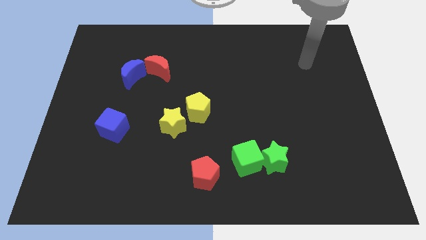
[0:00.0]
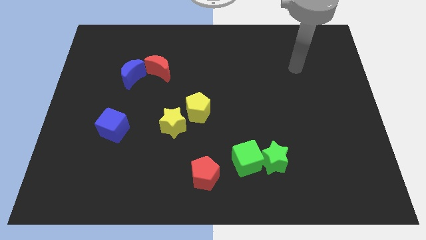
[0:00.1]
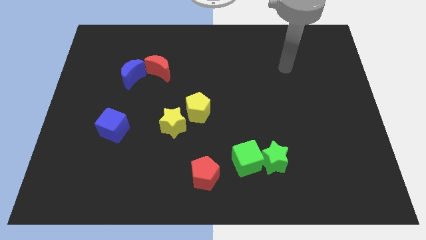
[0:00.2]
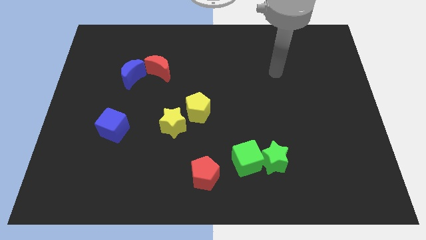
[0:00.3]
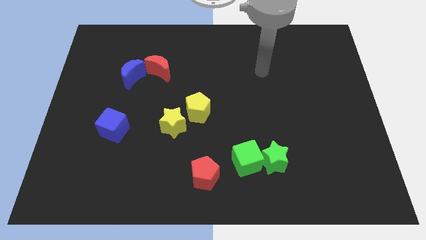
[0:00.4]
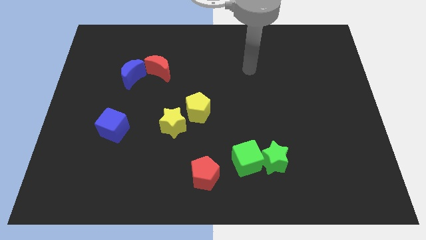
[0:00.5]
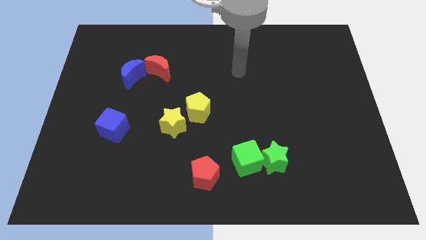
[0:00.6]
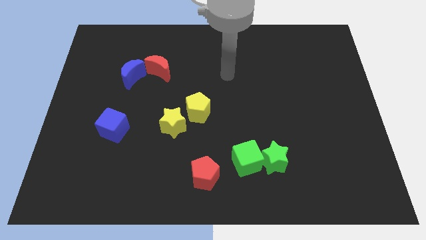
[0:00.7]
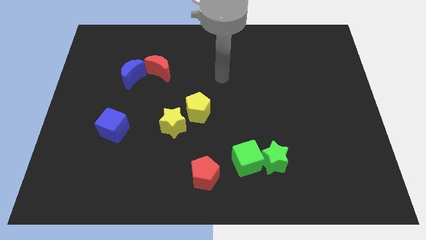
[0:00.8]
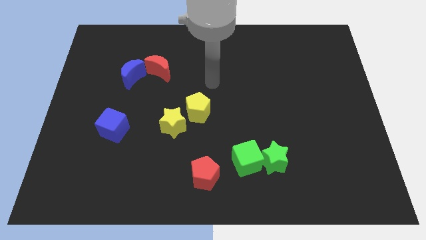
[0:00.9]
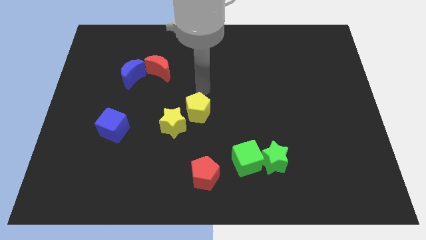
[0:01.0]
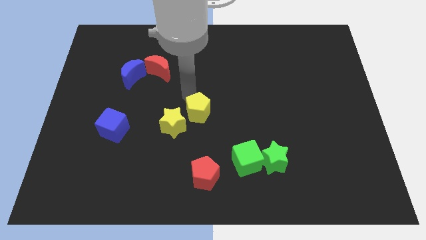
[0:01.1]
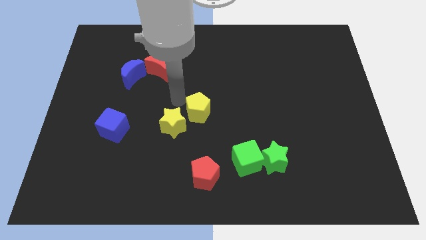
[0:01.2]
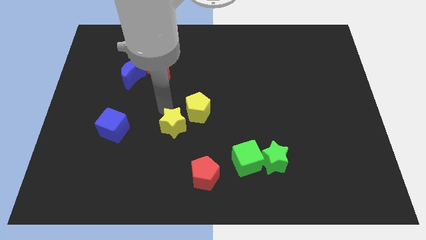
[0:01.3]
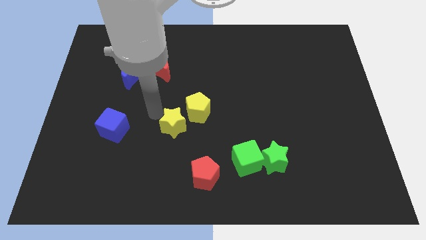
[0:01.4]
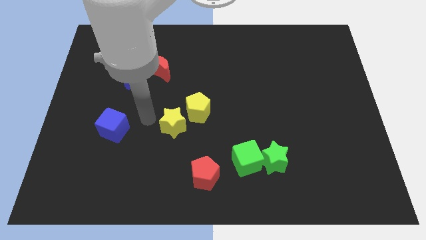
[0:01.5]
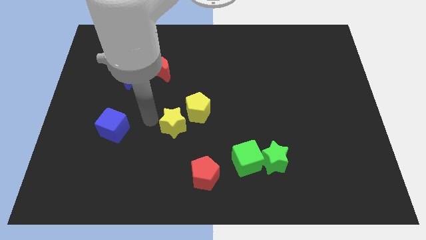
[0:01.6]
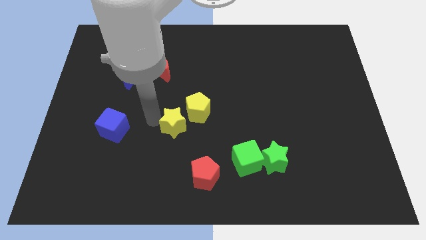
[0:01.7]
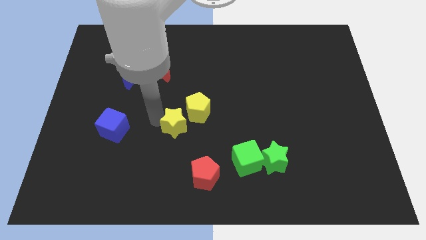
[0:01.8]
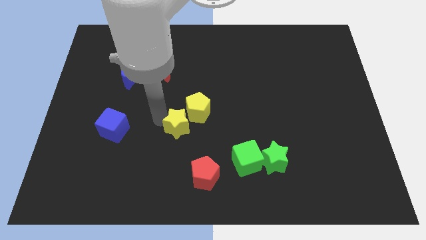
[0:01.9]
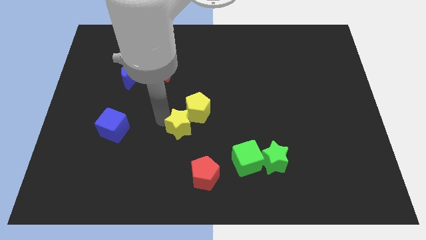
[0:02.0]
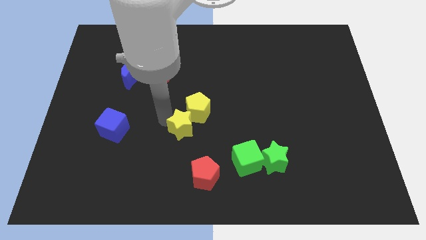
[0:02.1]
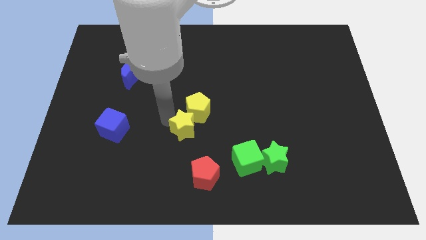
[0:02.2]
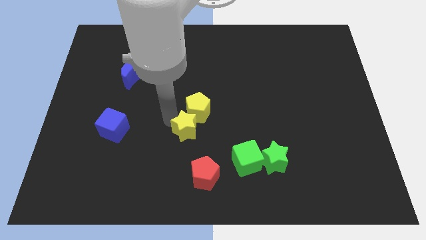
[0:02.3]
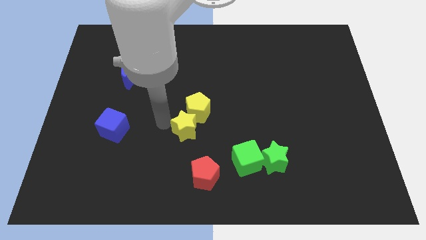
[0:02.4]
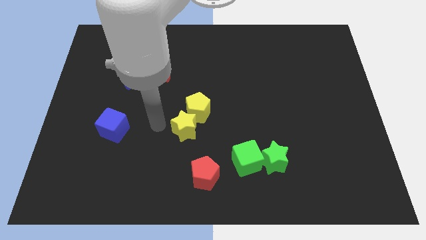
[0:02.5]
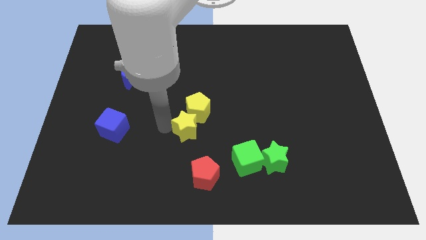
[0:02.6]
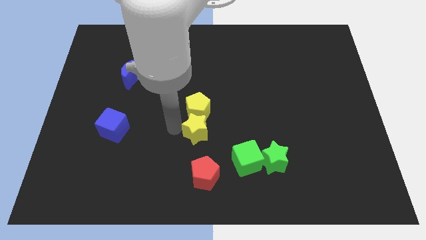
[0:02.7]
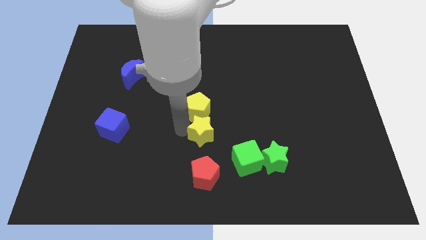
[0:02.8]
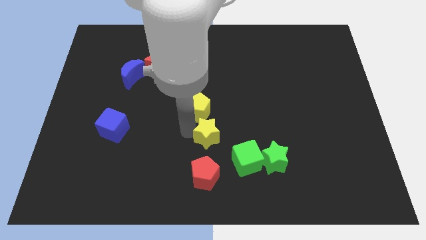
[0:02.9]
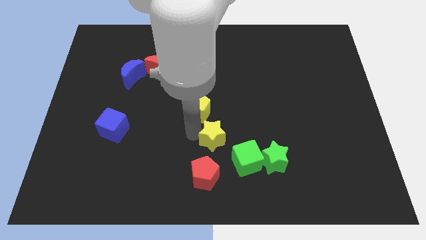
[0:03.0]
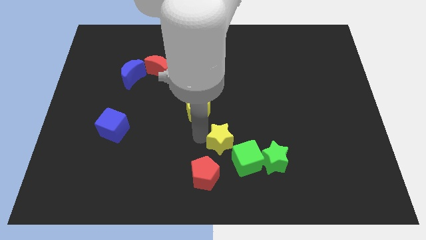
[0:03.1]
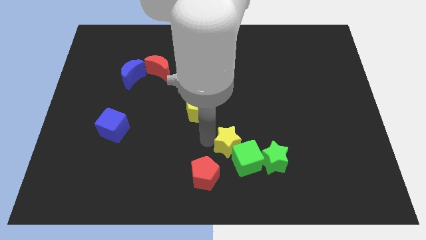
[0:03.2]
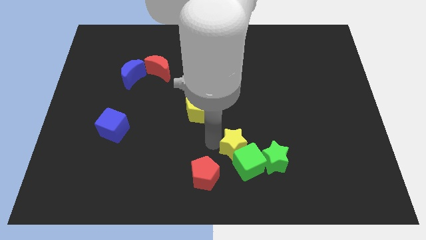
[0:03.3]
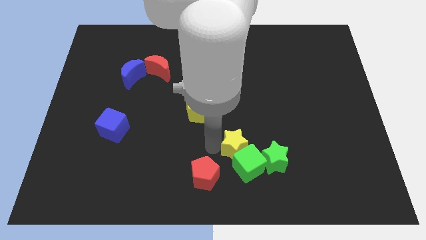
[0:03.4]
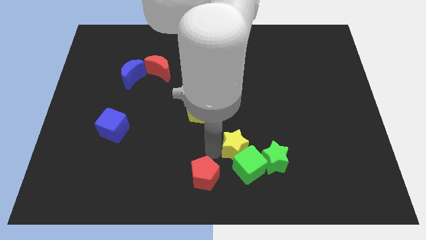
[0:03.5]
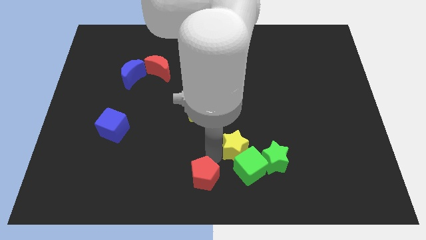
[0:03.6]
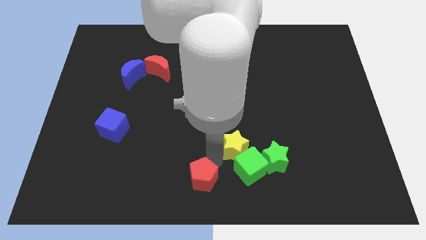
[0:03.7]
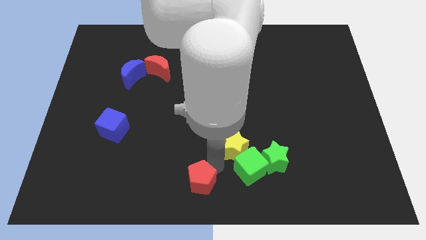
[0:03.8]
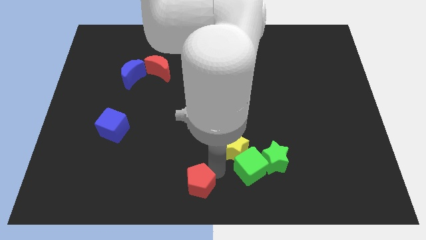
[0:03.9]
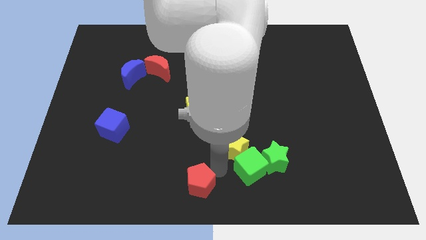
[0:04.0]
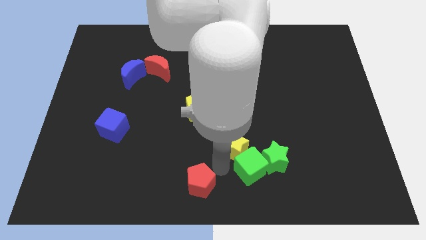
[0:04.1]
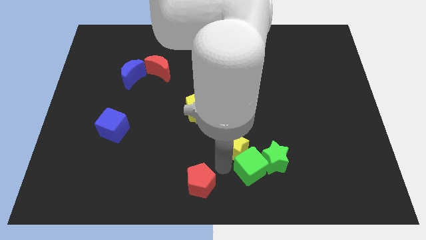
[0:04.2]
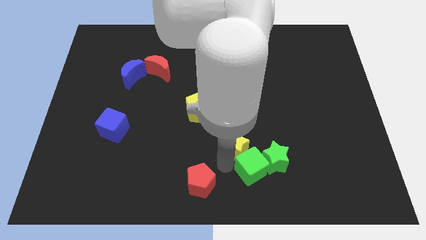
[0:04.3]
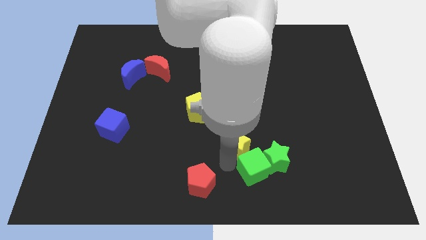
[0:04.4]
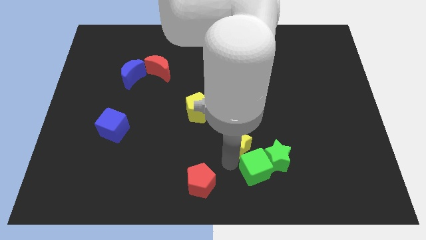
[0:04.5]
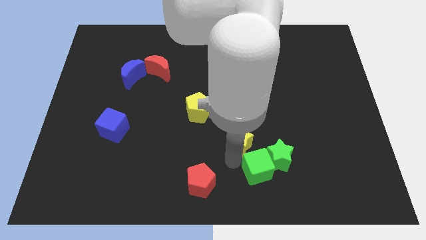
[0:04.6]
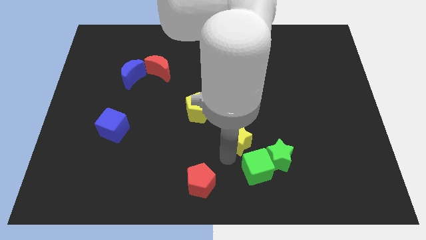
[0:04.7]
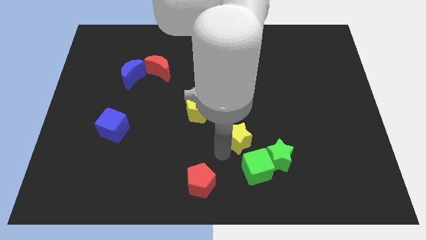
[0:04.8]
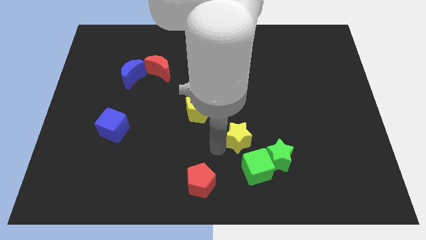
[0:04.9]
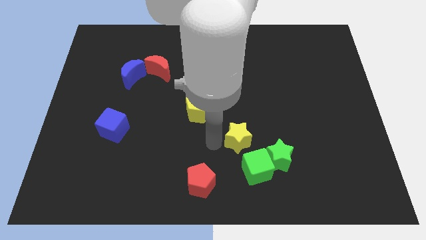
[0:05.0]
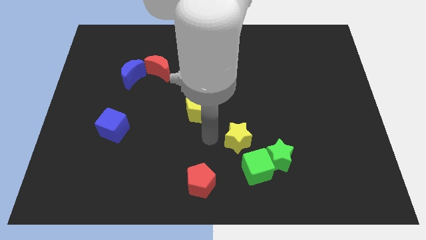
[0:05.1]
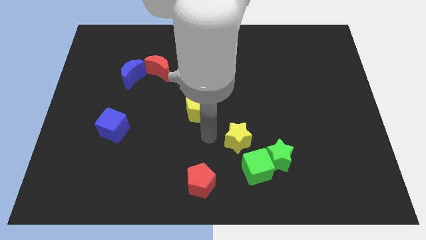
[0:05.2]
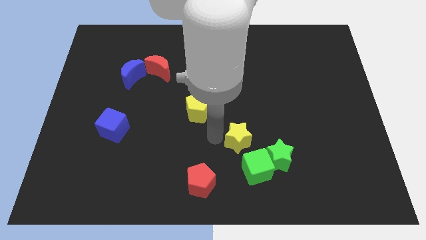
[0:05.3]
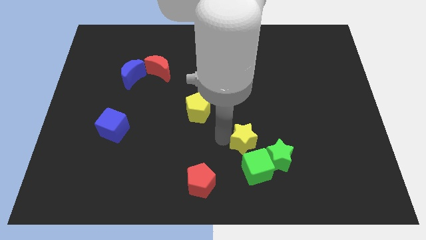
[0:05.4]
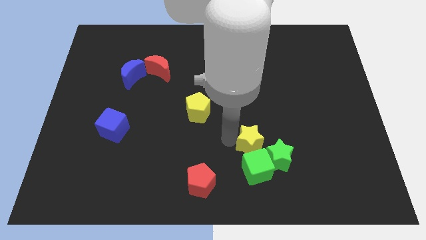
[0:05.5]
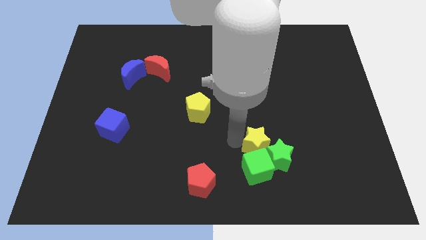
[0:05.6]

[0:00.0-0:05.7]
push the yellow star to the green star

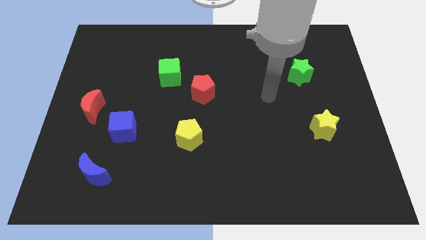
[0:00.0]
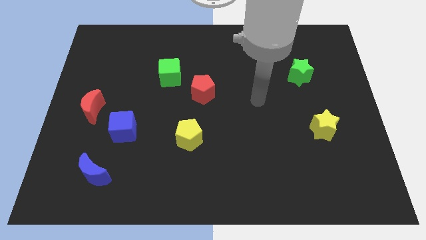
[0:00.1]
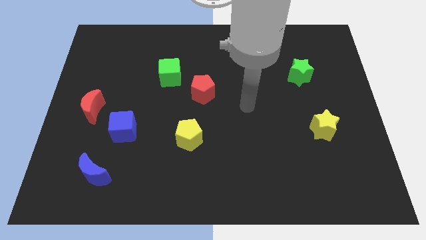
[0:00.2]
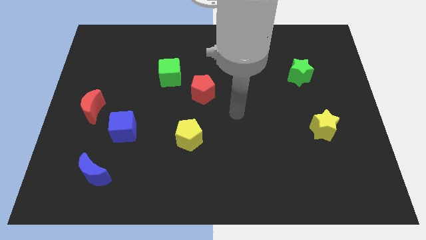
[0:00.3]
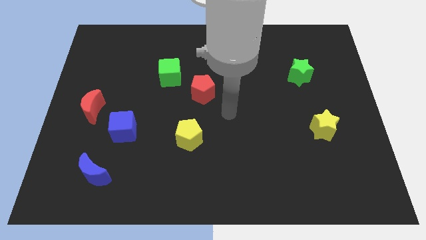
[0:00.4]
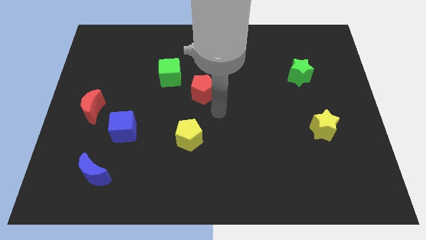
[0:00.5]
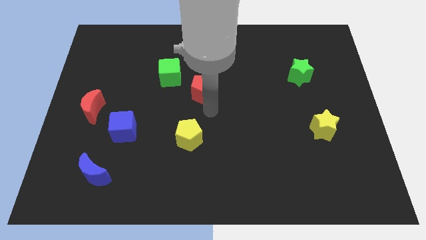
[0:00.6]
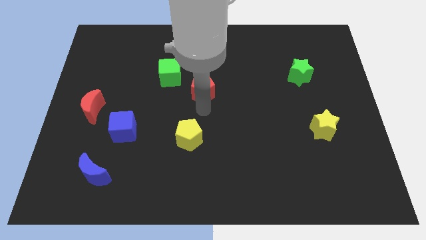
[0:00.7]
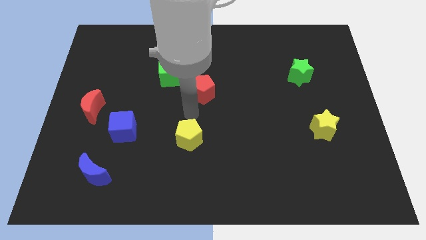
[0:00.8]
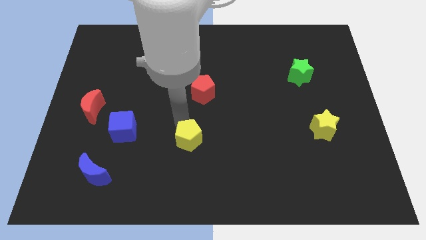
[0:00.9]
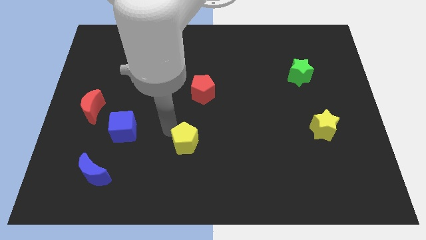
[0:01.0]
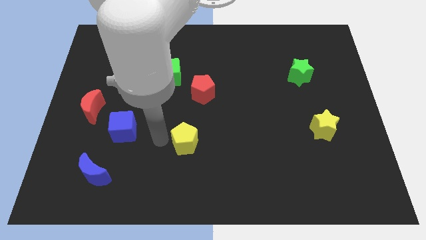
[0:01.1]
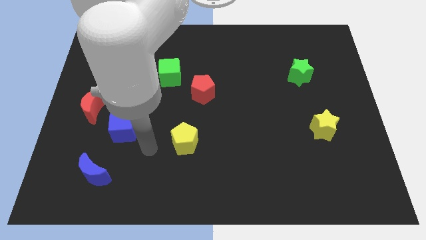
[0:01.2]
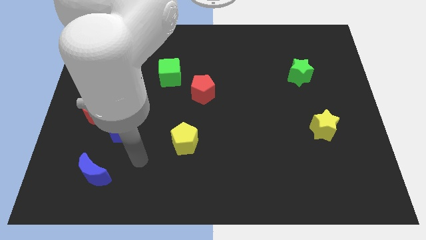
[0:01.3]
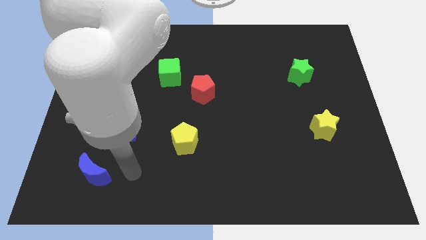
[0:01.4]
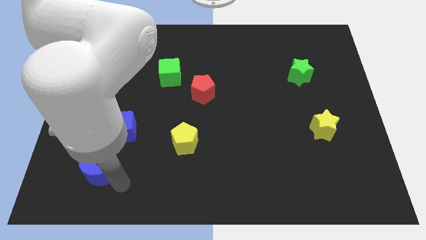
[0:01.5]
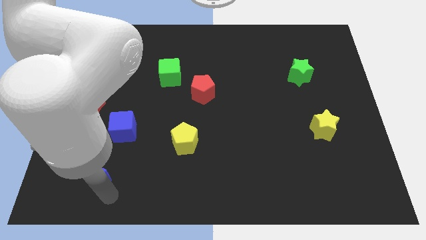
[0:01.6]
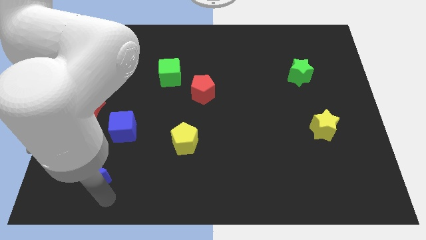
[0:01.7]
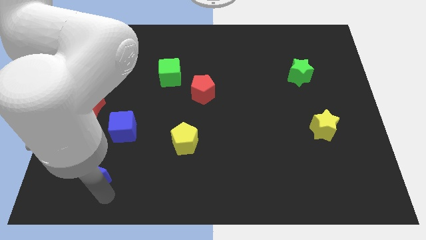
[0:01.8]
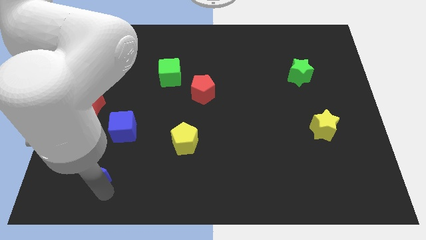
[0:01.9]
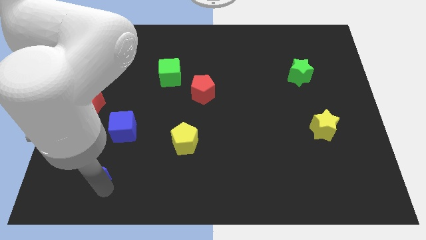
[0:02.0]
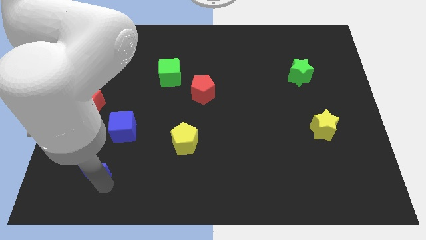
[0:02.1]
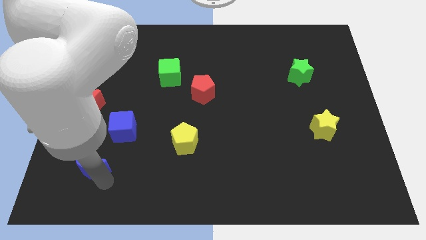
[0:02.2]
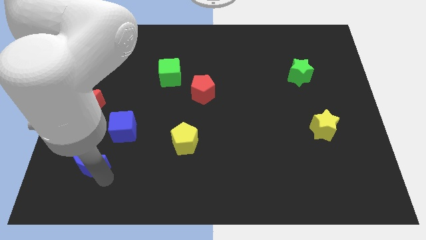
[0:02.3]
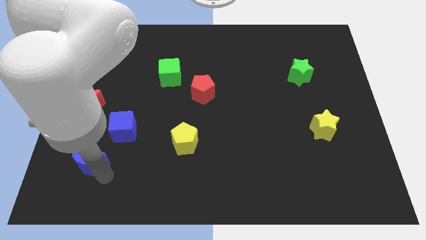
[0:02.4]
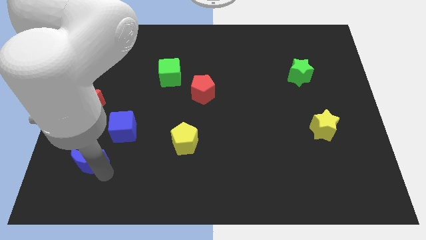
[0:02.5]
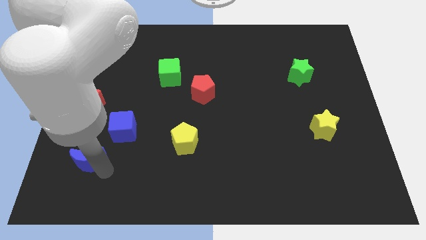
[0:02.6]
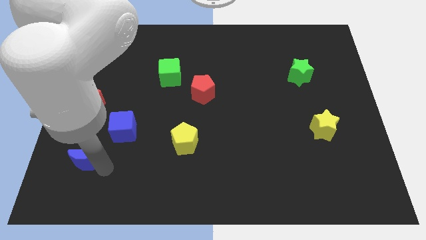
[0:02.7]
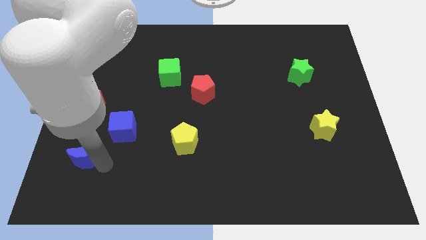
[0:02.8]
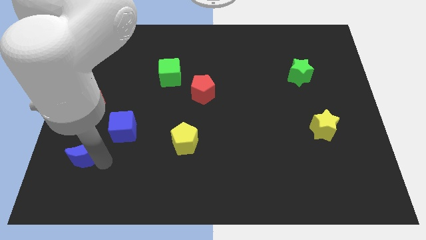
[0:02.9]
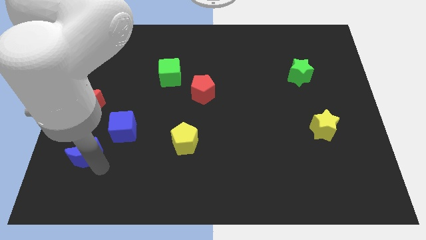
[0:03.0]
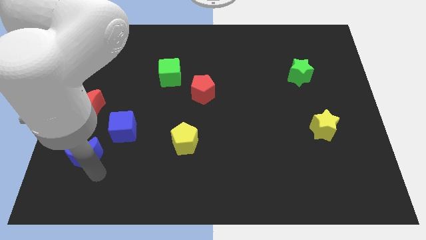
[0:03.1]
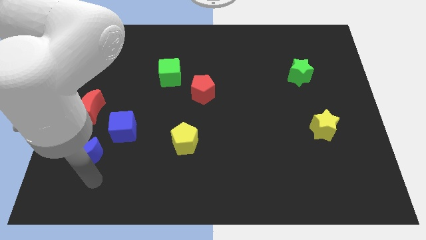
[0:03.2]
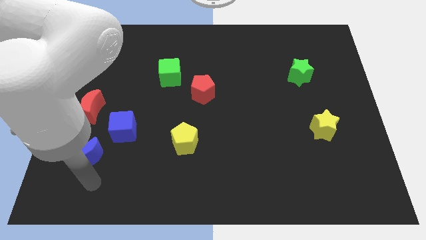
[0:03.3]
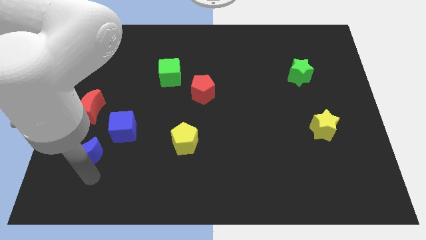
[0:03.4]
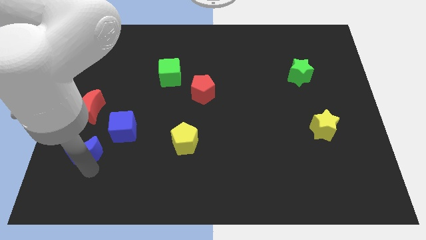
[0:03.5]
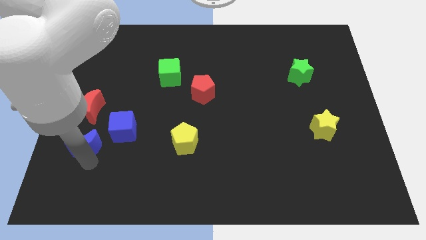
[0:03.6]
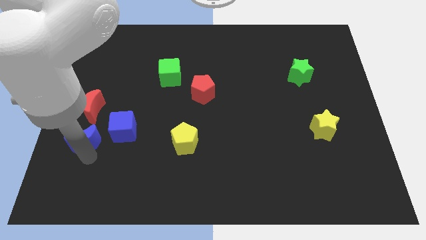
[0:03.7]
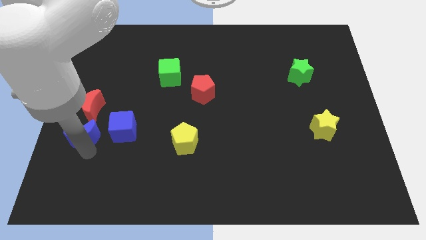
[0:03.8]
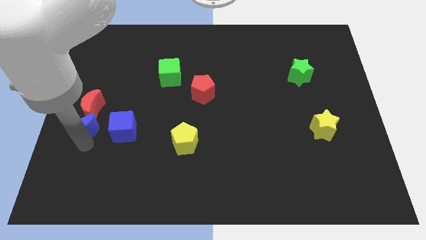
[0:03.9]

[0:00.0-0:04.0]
push the blue moon next to the red moon
